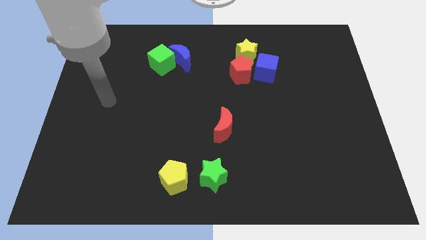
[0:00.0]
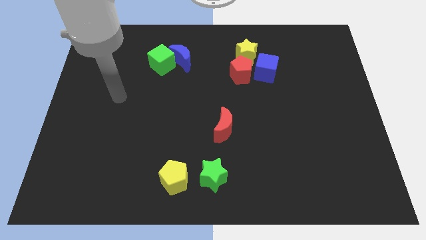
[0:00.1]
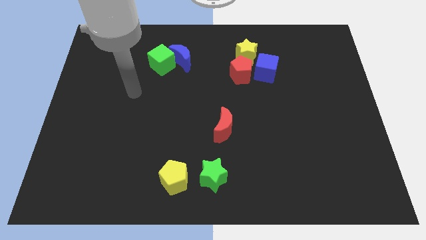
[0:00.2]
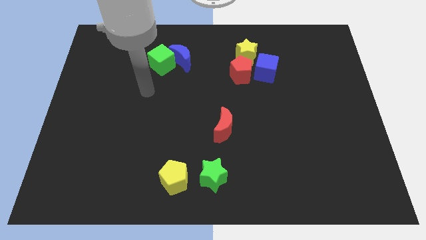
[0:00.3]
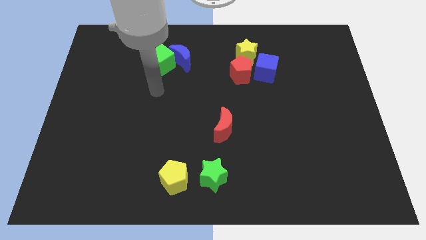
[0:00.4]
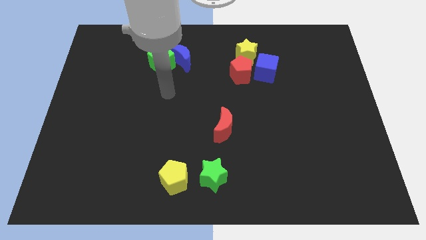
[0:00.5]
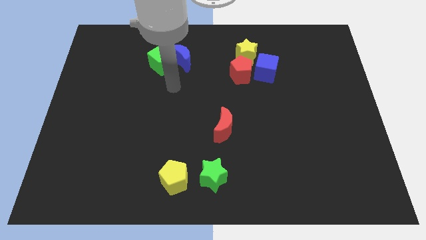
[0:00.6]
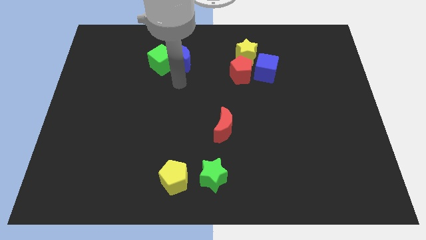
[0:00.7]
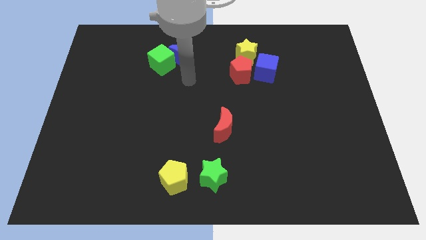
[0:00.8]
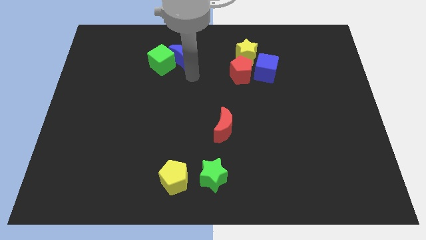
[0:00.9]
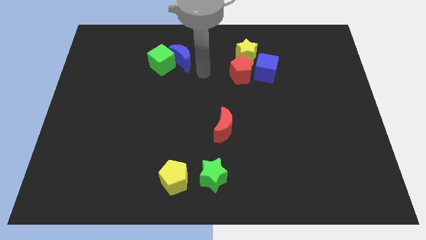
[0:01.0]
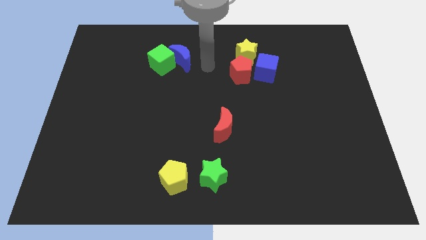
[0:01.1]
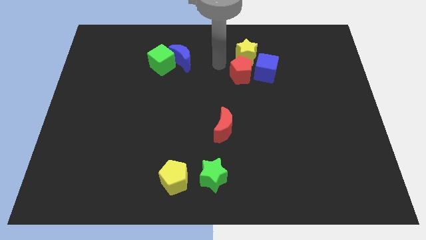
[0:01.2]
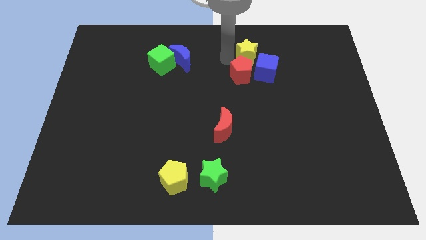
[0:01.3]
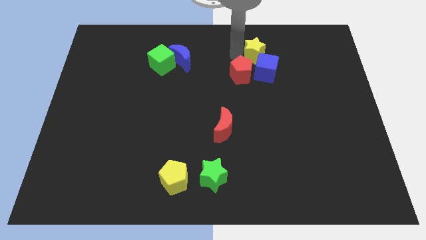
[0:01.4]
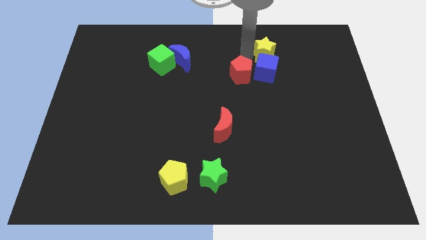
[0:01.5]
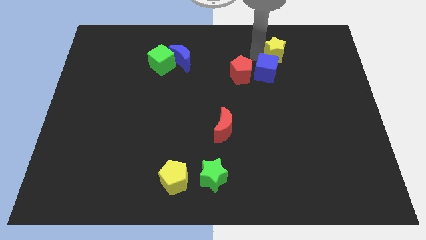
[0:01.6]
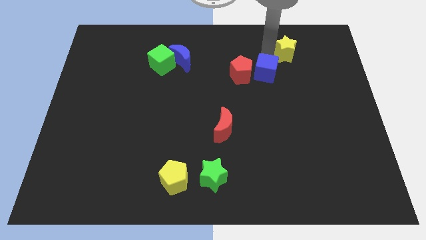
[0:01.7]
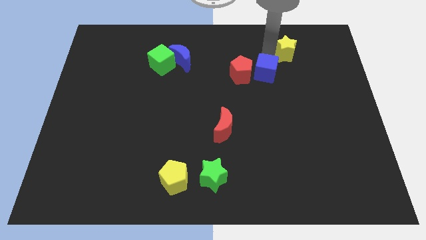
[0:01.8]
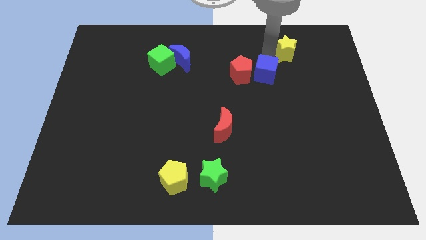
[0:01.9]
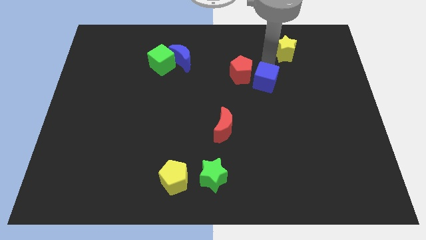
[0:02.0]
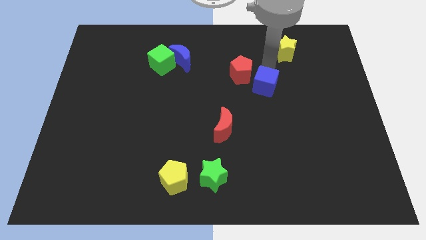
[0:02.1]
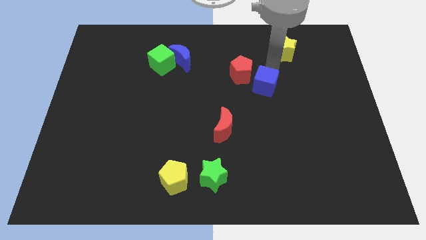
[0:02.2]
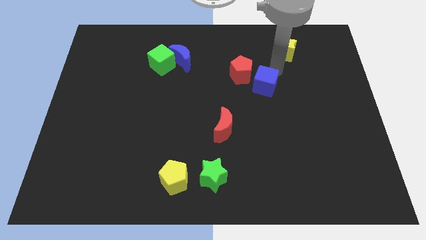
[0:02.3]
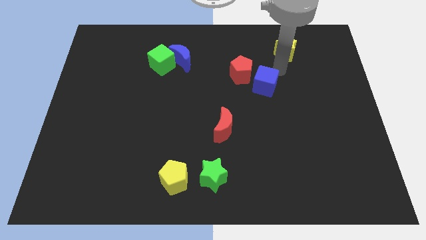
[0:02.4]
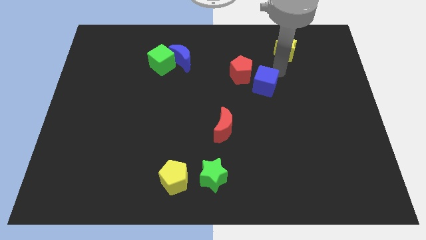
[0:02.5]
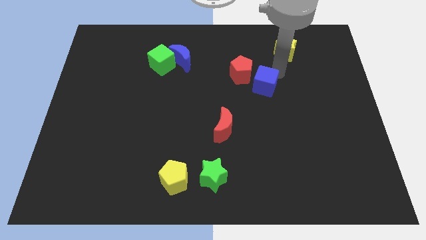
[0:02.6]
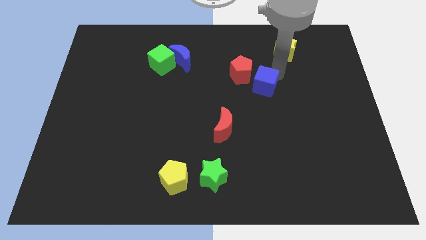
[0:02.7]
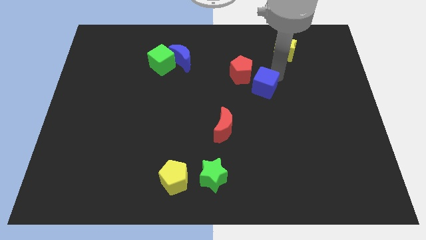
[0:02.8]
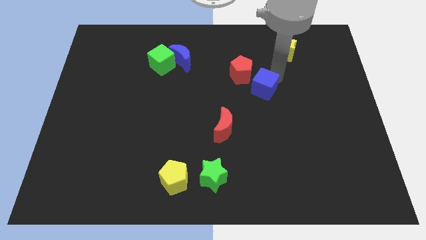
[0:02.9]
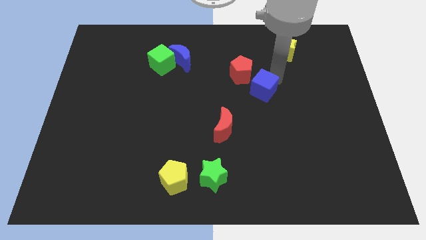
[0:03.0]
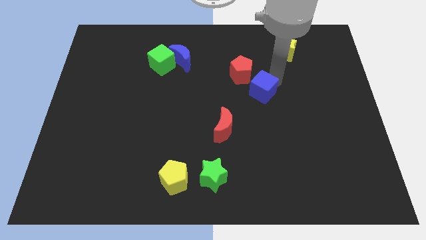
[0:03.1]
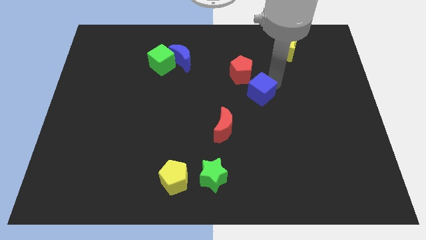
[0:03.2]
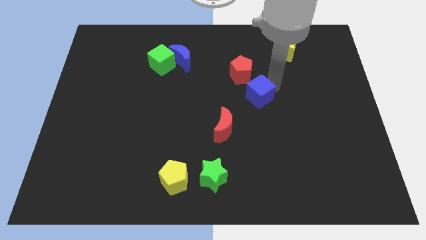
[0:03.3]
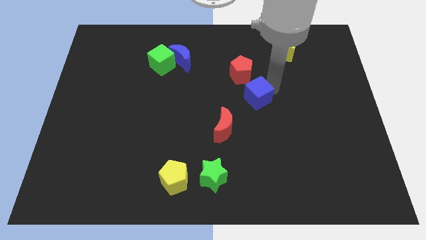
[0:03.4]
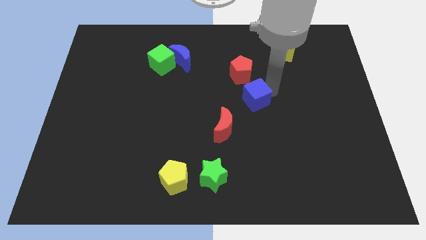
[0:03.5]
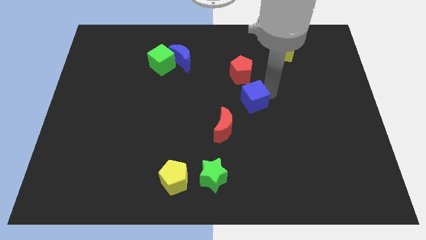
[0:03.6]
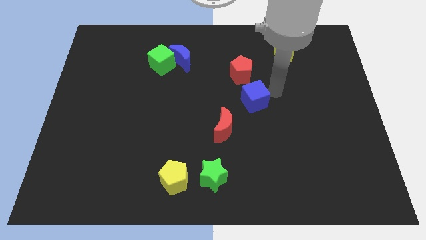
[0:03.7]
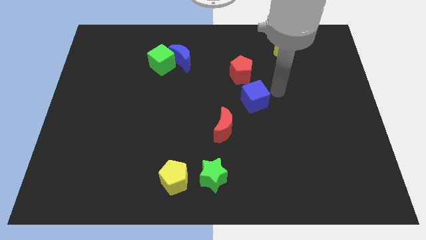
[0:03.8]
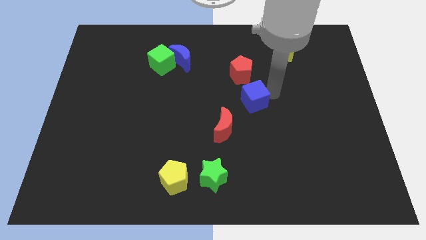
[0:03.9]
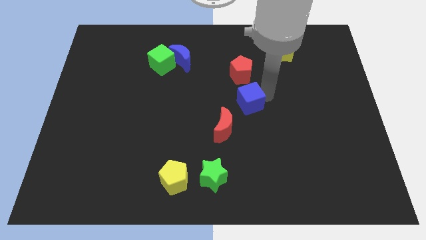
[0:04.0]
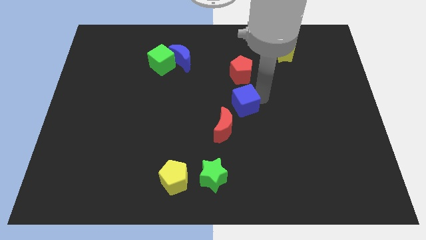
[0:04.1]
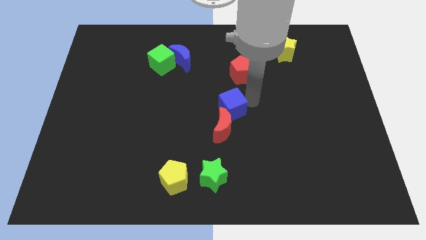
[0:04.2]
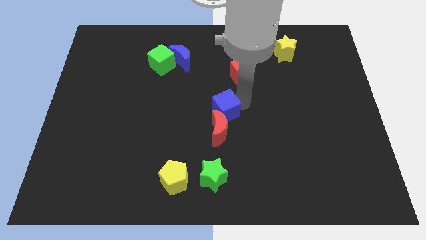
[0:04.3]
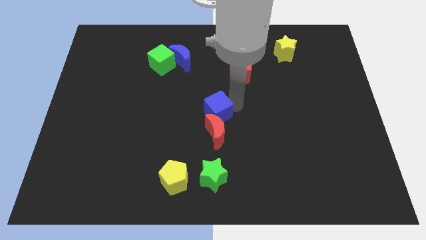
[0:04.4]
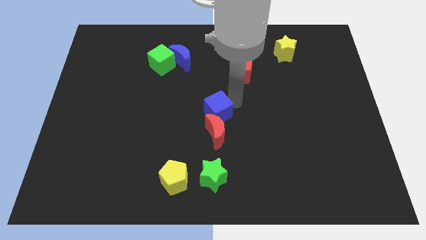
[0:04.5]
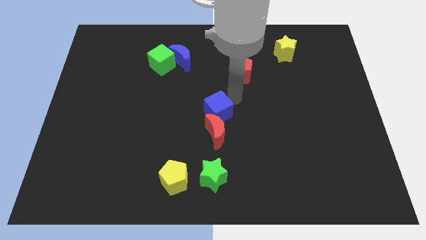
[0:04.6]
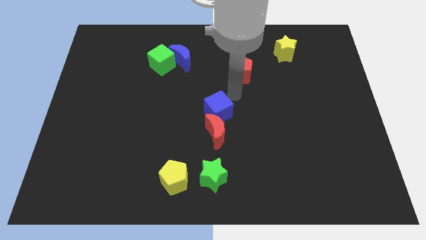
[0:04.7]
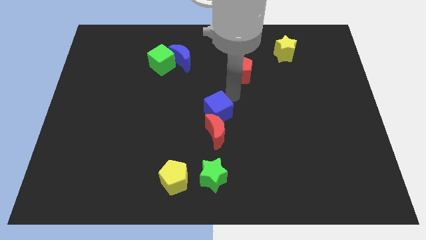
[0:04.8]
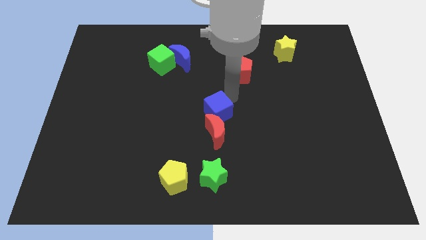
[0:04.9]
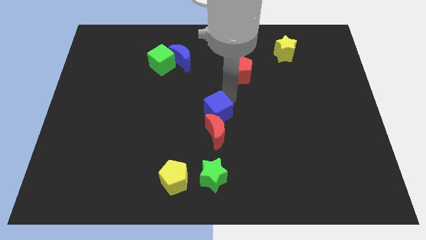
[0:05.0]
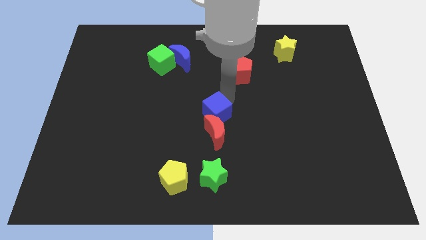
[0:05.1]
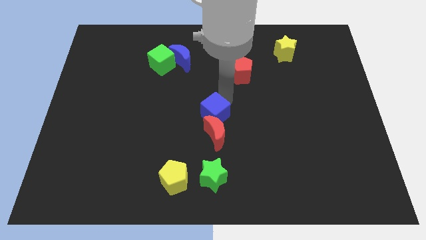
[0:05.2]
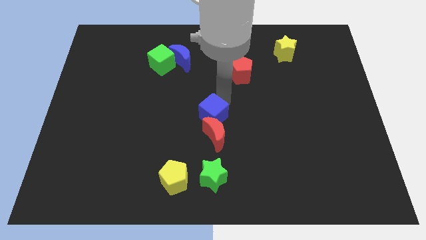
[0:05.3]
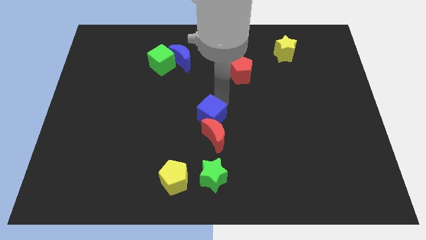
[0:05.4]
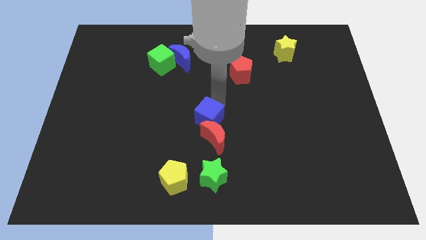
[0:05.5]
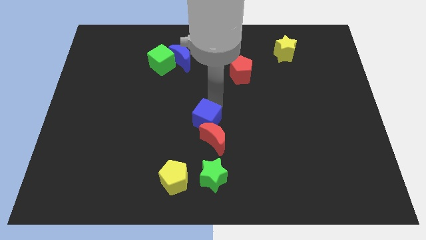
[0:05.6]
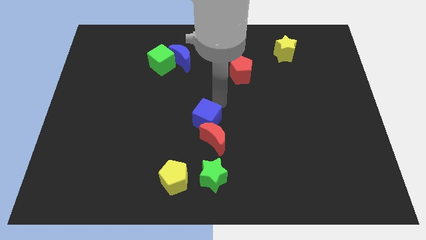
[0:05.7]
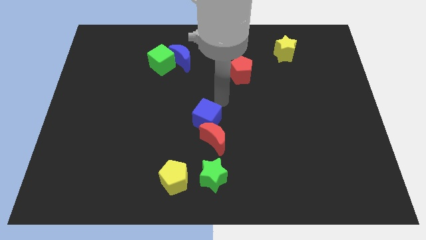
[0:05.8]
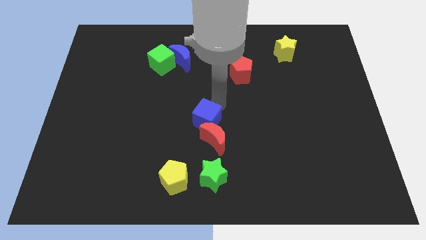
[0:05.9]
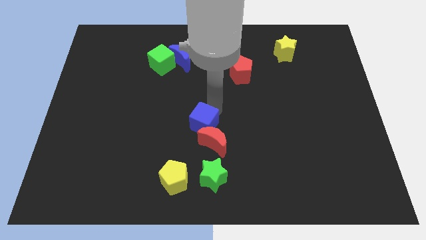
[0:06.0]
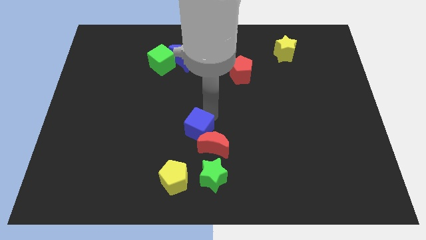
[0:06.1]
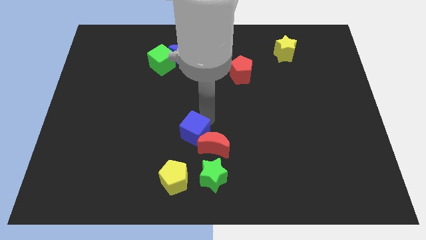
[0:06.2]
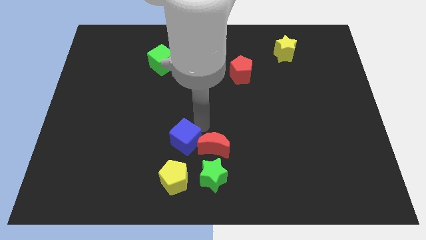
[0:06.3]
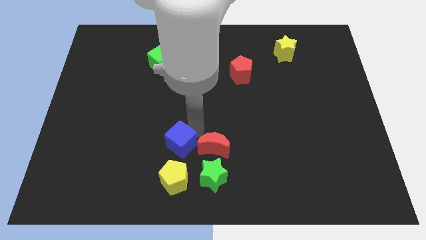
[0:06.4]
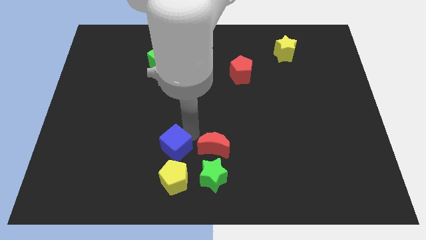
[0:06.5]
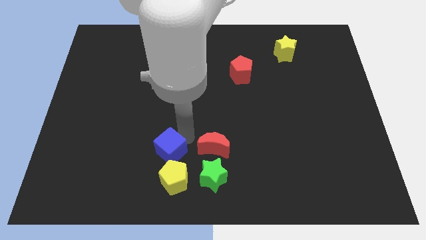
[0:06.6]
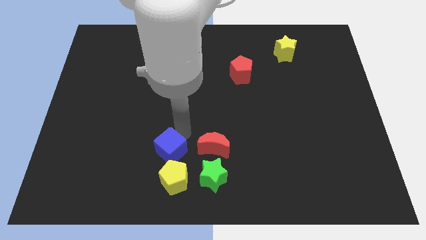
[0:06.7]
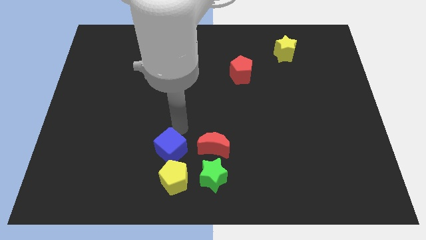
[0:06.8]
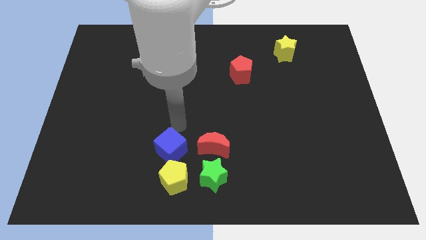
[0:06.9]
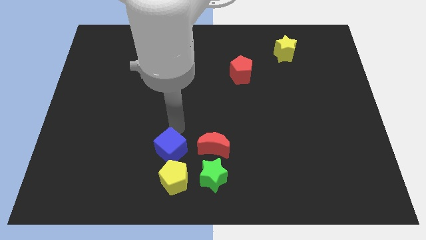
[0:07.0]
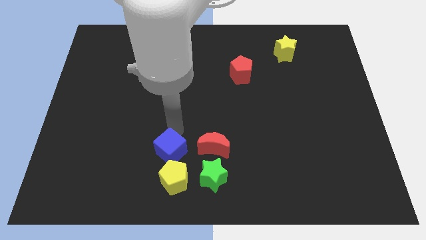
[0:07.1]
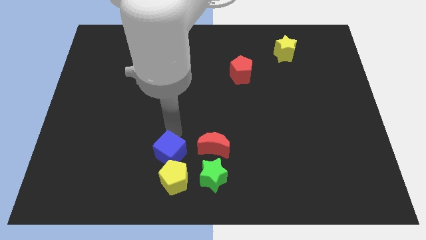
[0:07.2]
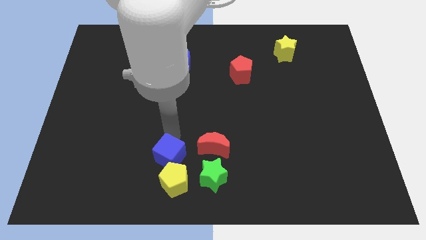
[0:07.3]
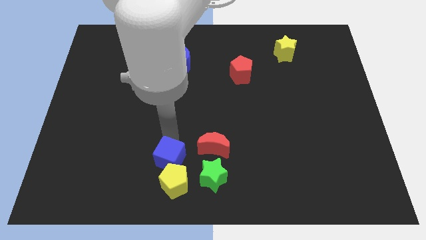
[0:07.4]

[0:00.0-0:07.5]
move the blue cube left of the green star
